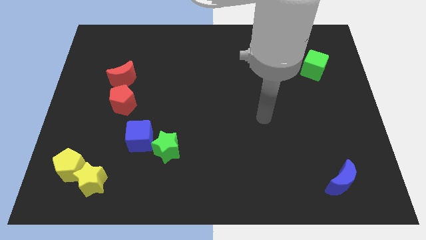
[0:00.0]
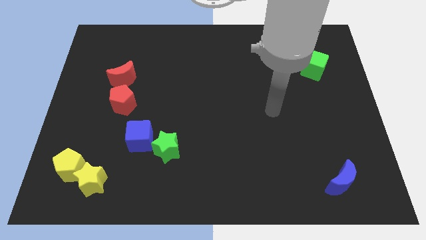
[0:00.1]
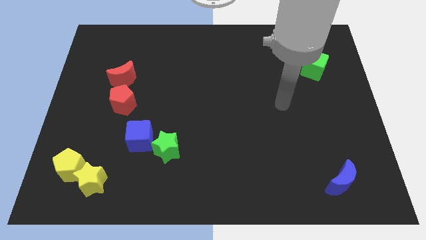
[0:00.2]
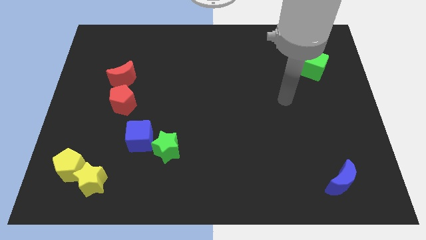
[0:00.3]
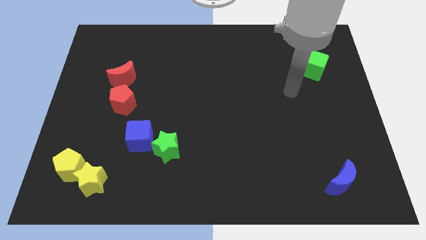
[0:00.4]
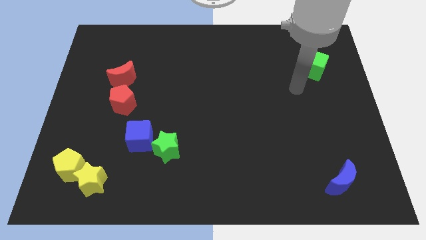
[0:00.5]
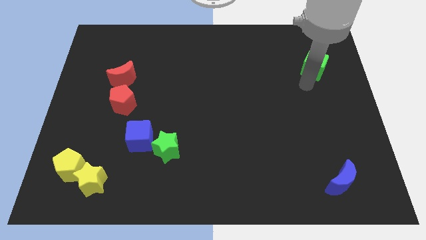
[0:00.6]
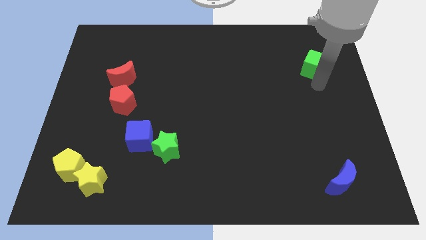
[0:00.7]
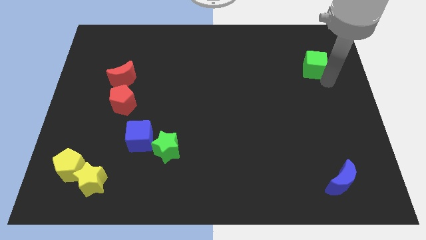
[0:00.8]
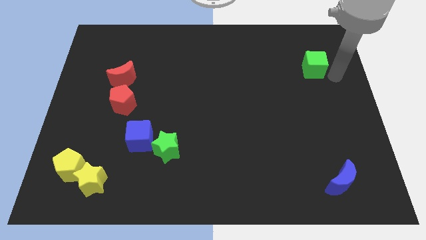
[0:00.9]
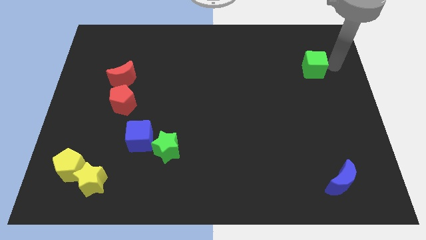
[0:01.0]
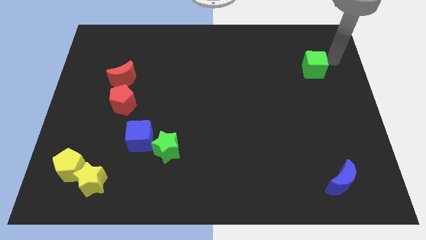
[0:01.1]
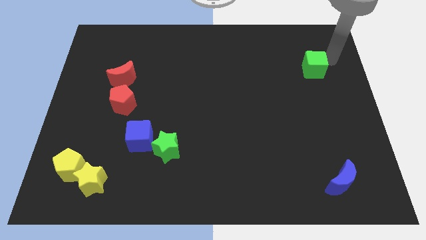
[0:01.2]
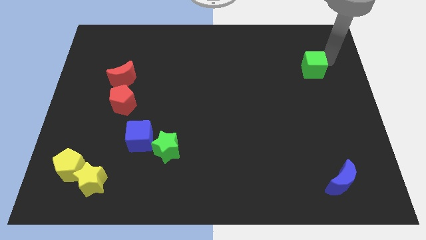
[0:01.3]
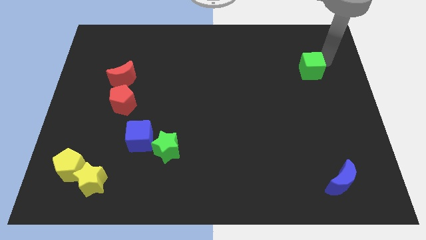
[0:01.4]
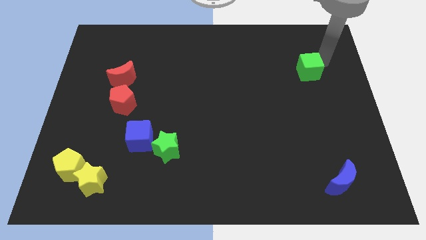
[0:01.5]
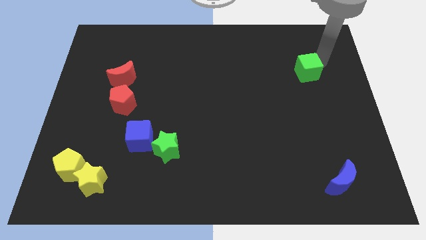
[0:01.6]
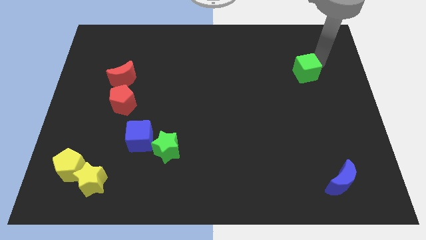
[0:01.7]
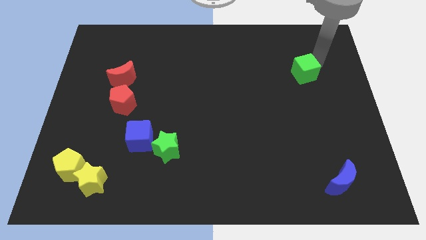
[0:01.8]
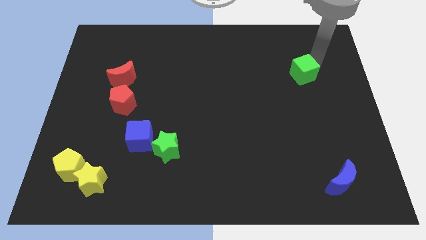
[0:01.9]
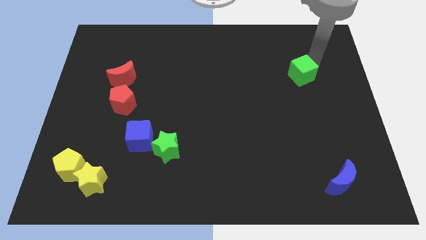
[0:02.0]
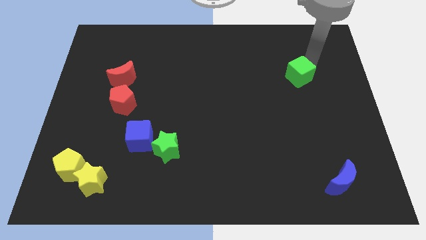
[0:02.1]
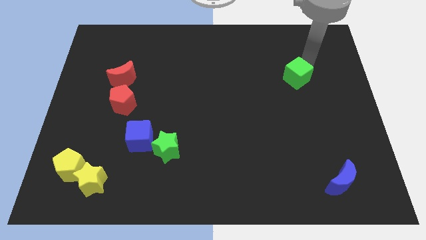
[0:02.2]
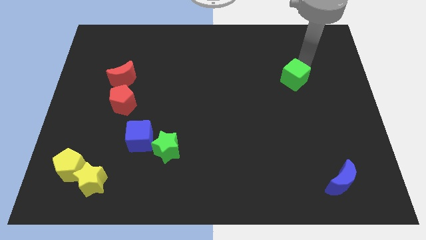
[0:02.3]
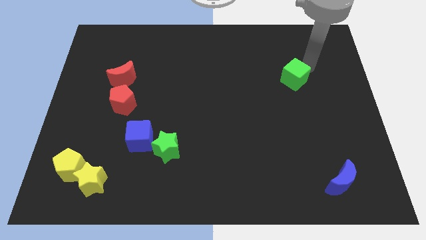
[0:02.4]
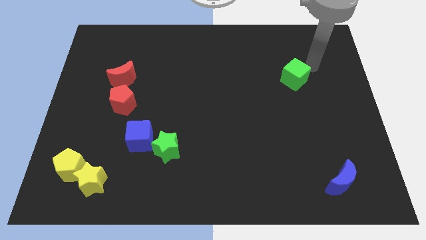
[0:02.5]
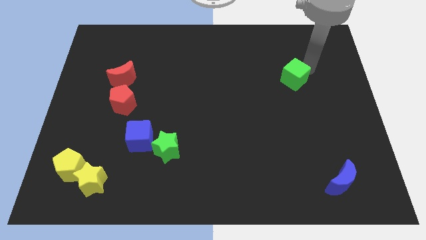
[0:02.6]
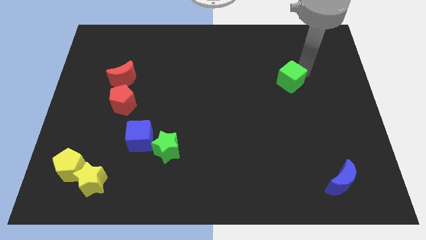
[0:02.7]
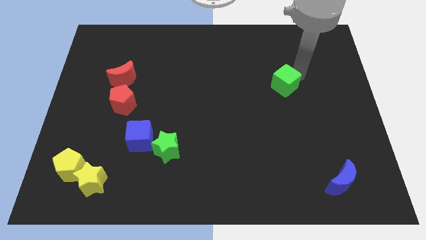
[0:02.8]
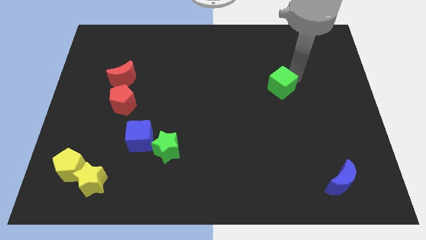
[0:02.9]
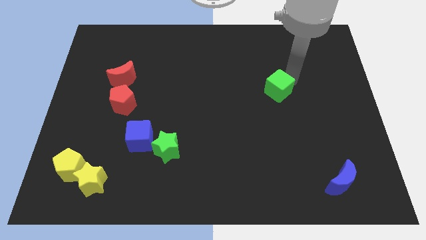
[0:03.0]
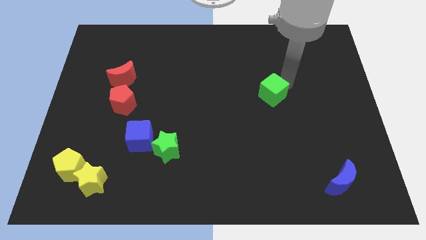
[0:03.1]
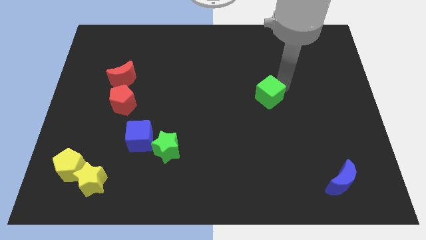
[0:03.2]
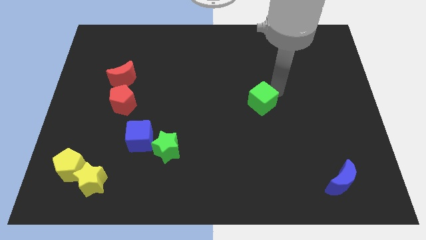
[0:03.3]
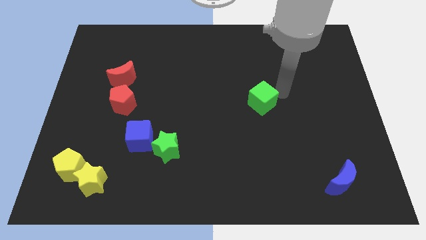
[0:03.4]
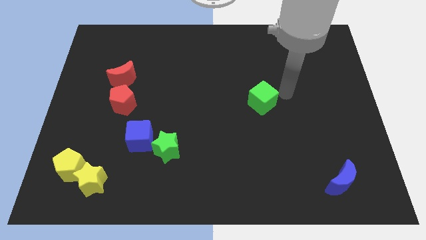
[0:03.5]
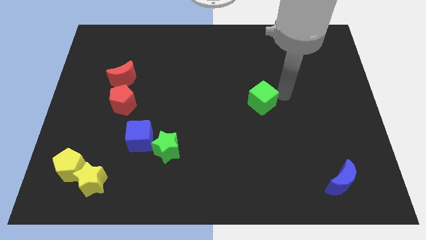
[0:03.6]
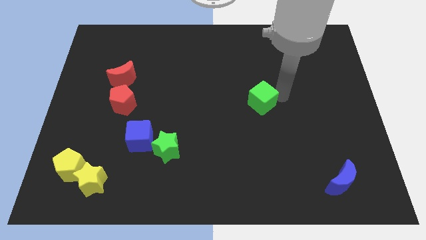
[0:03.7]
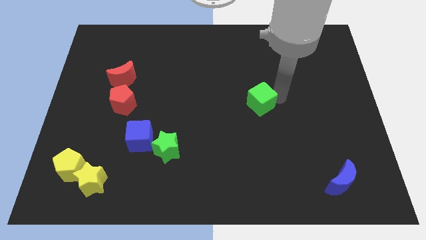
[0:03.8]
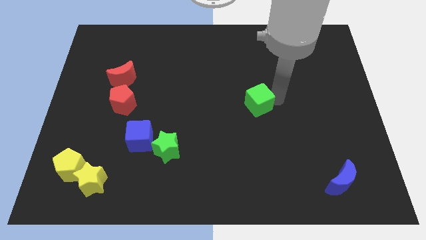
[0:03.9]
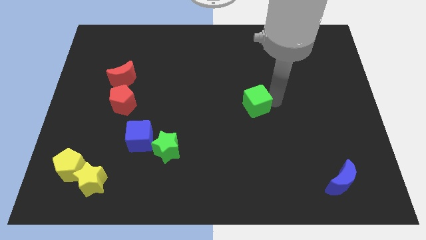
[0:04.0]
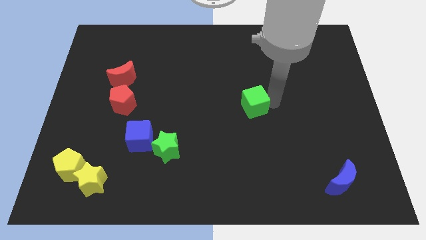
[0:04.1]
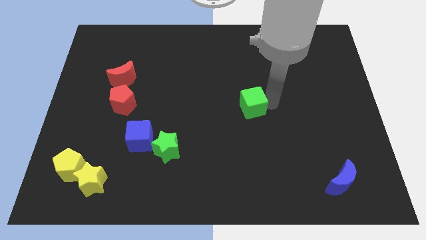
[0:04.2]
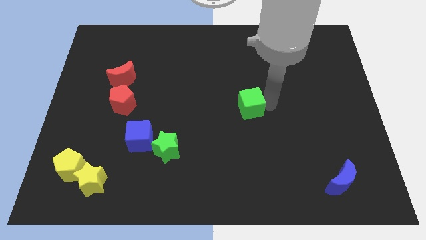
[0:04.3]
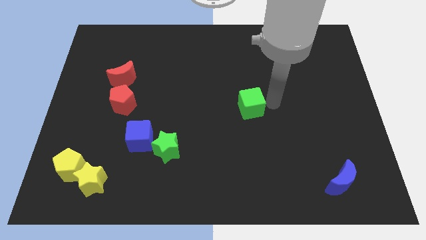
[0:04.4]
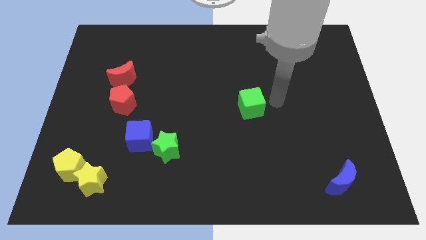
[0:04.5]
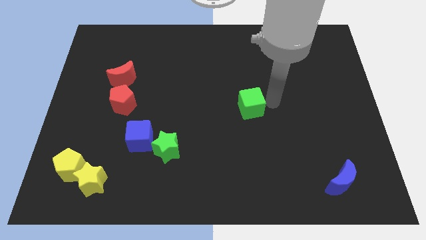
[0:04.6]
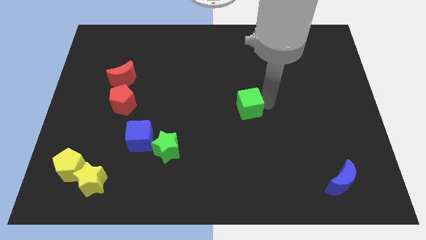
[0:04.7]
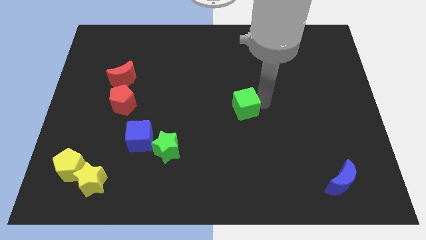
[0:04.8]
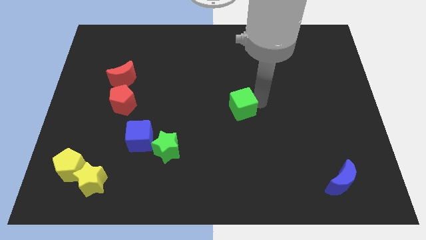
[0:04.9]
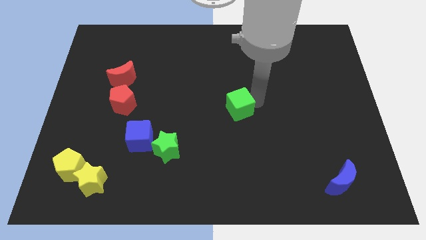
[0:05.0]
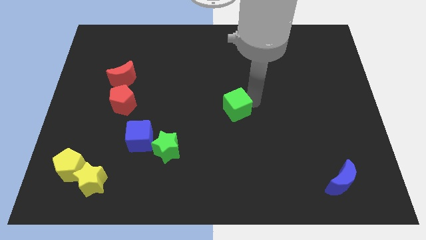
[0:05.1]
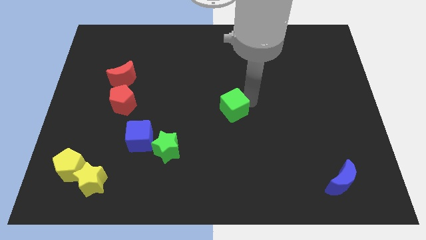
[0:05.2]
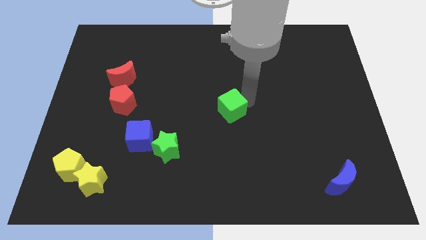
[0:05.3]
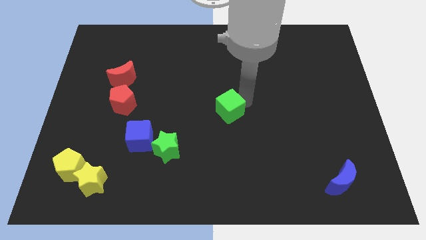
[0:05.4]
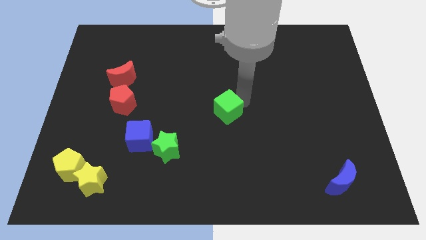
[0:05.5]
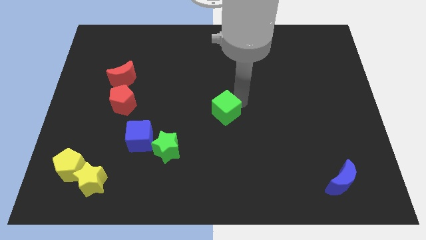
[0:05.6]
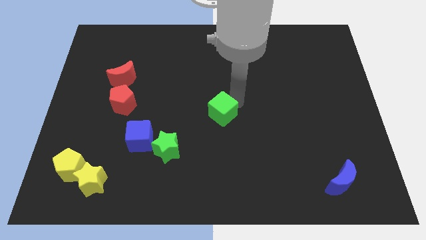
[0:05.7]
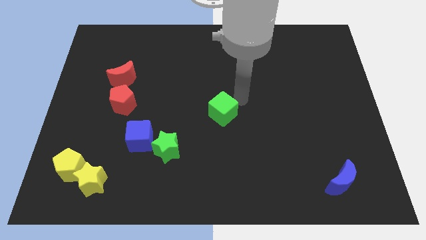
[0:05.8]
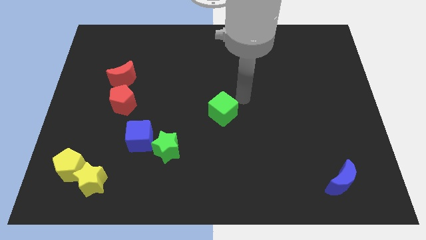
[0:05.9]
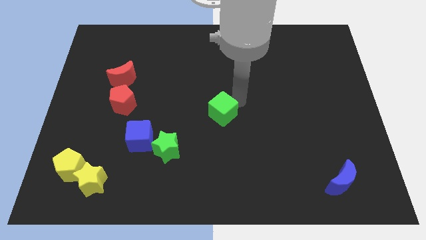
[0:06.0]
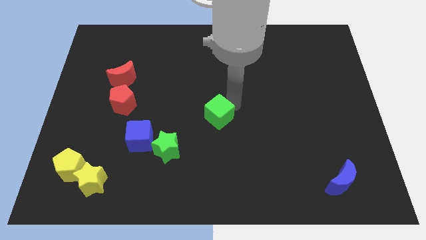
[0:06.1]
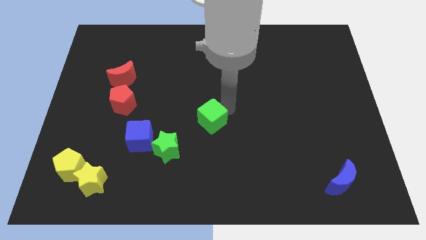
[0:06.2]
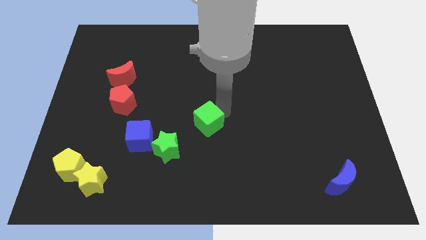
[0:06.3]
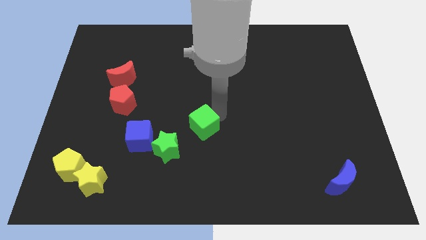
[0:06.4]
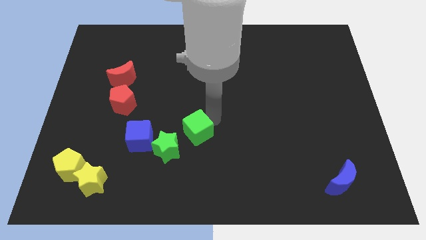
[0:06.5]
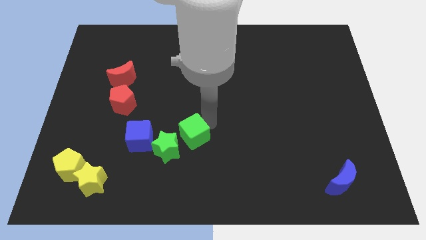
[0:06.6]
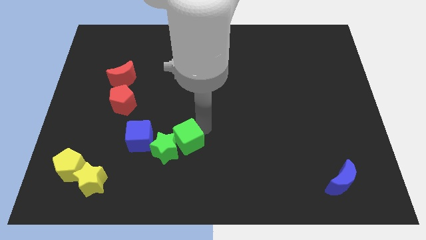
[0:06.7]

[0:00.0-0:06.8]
put the green cube next to the green star

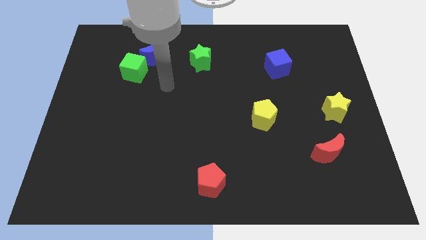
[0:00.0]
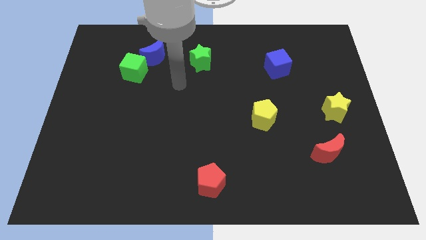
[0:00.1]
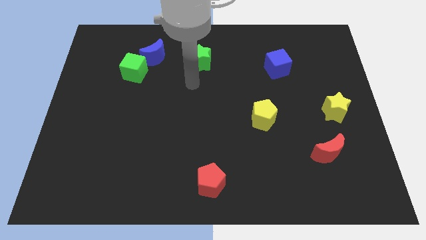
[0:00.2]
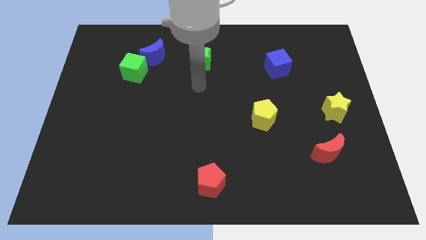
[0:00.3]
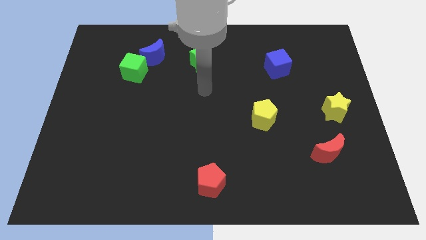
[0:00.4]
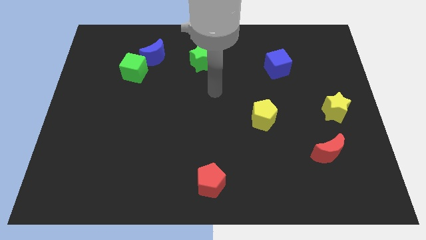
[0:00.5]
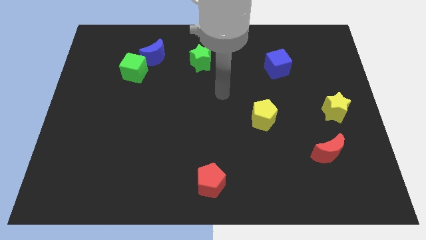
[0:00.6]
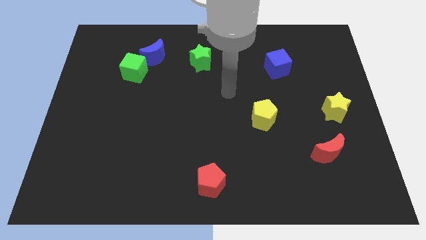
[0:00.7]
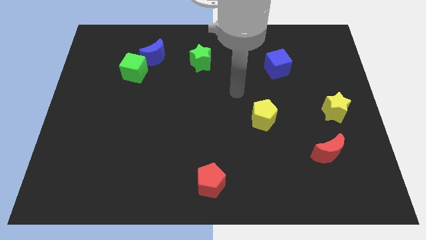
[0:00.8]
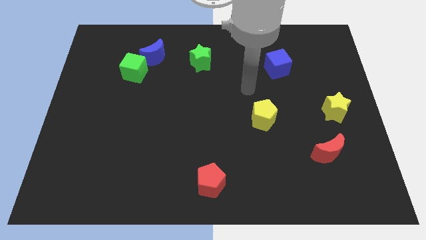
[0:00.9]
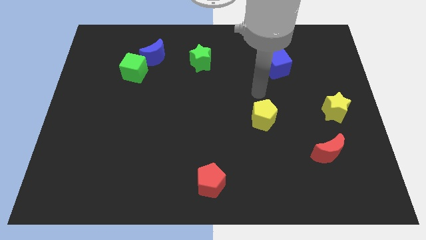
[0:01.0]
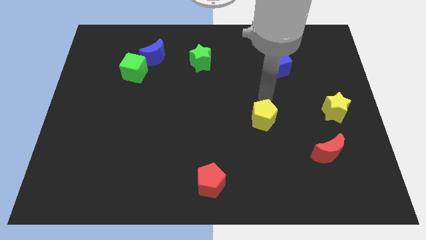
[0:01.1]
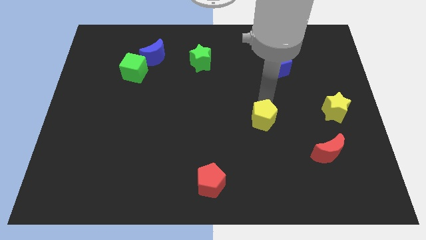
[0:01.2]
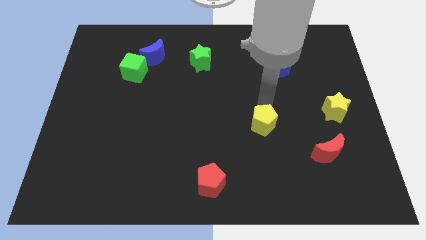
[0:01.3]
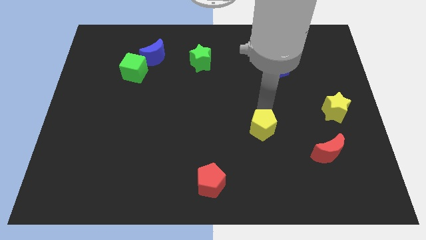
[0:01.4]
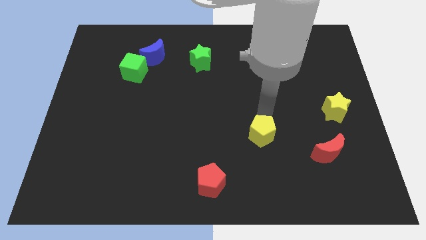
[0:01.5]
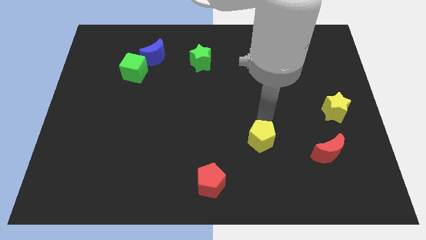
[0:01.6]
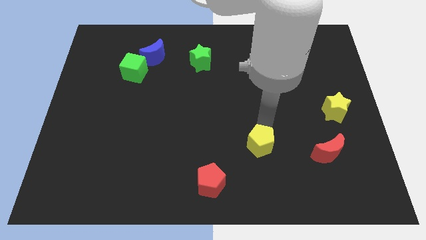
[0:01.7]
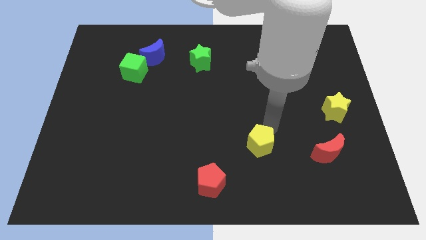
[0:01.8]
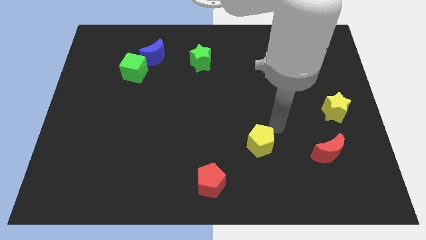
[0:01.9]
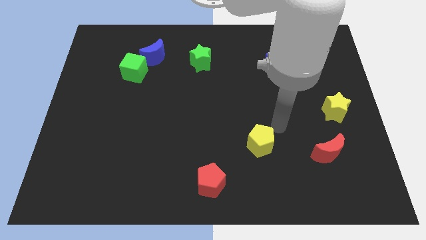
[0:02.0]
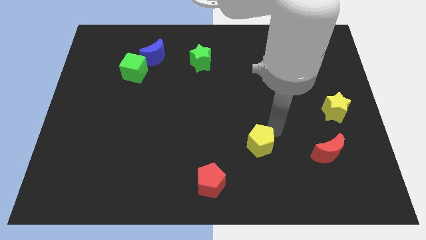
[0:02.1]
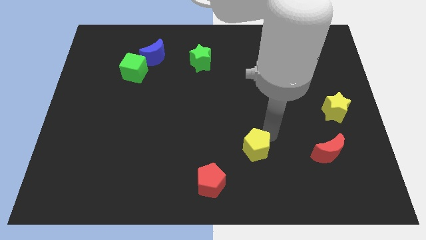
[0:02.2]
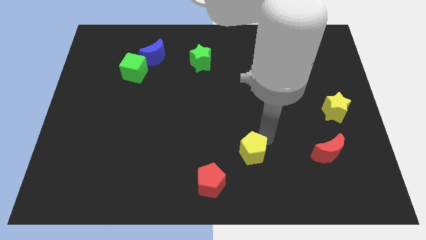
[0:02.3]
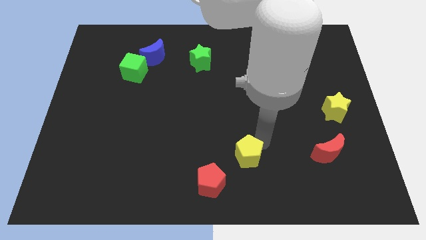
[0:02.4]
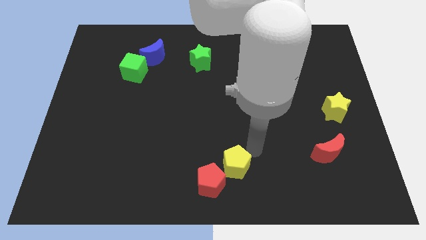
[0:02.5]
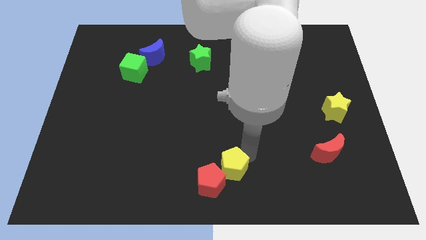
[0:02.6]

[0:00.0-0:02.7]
push the yellow pentagon to the red pentagon
